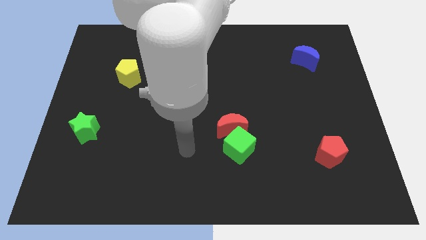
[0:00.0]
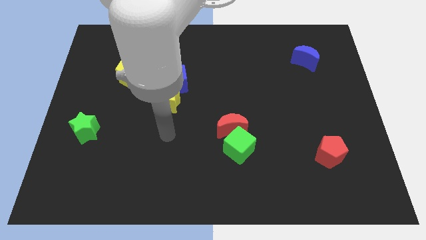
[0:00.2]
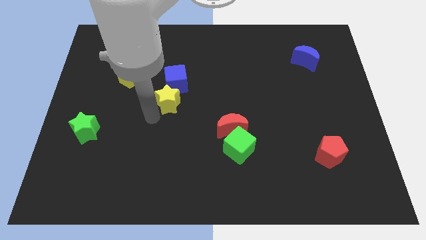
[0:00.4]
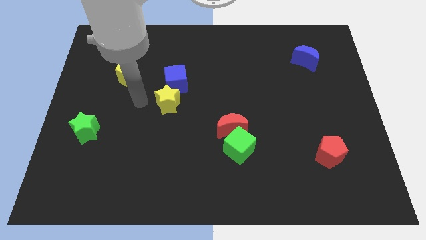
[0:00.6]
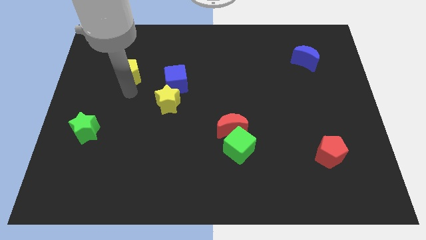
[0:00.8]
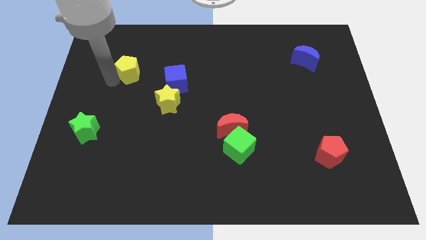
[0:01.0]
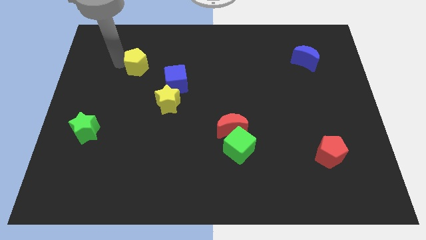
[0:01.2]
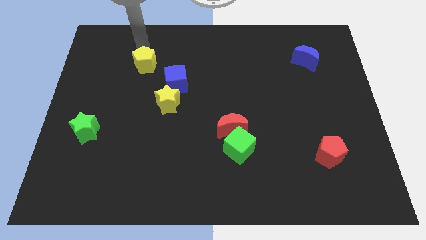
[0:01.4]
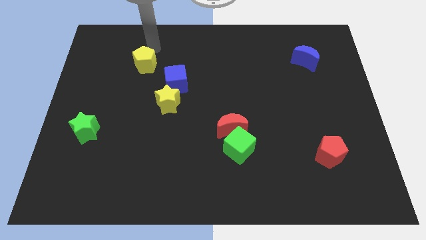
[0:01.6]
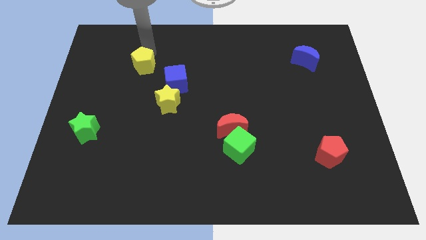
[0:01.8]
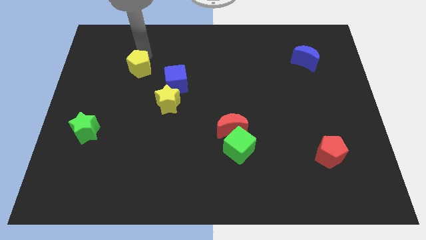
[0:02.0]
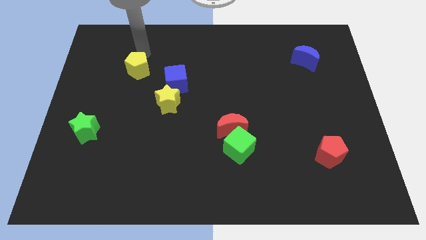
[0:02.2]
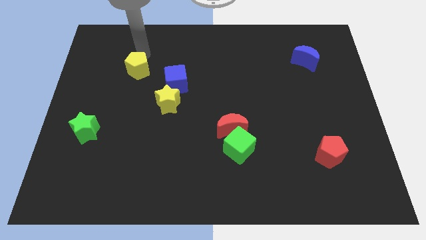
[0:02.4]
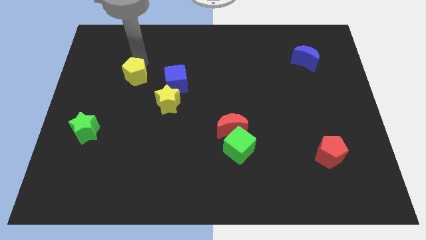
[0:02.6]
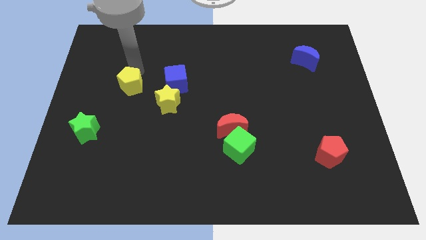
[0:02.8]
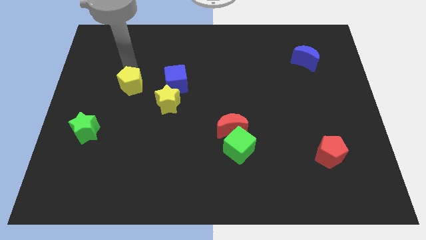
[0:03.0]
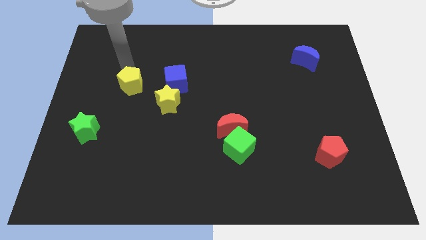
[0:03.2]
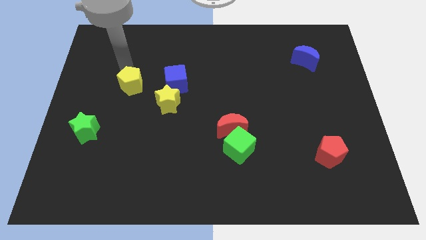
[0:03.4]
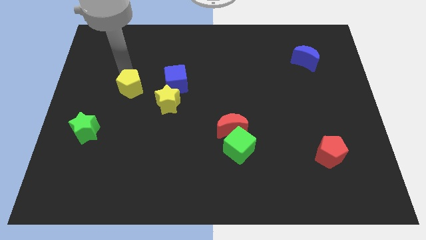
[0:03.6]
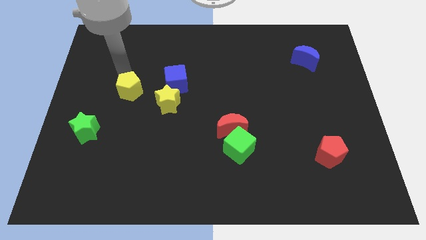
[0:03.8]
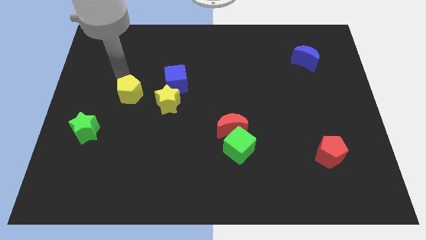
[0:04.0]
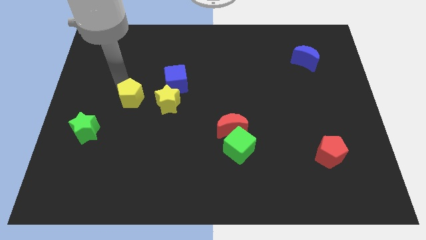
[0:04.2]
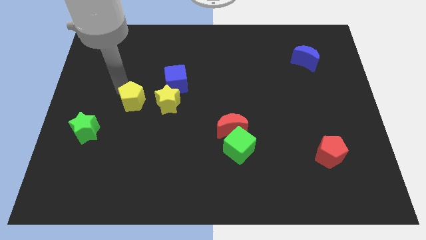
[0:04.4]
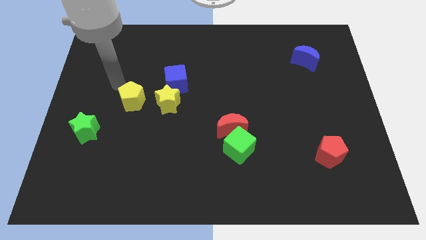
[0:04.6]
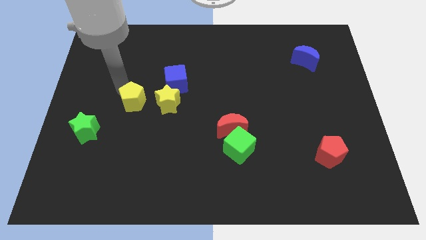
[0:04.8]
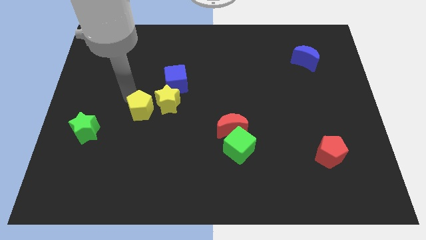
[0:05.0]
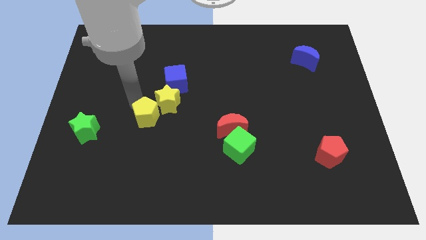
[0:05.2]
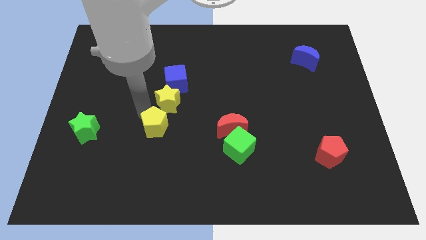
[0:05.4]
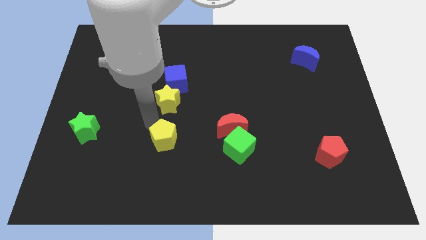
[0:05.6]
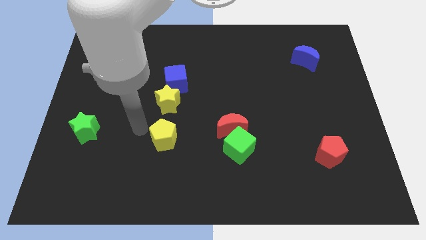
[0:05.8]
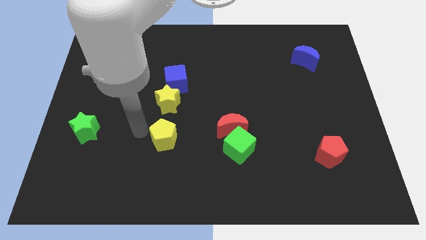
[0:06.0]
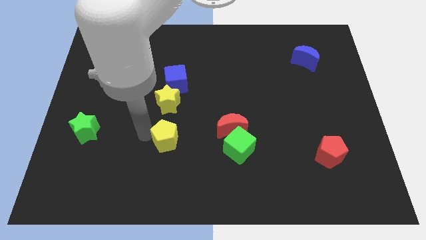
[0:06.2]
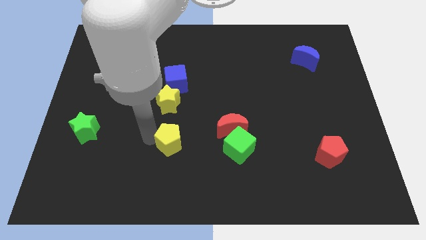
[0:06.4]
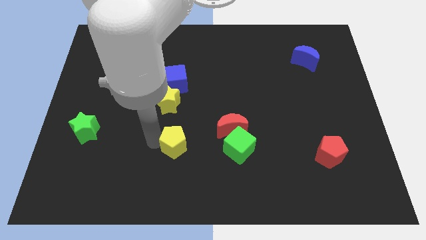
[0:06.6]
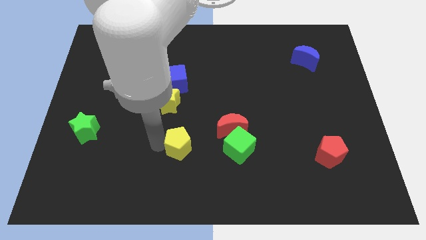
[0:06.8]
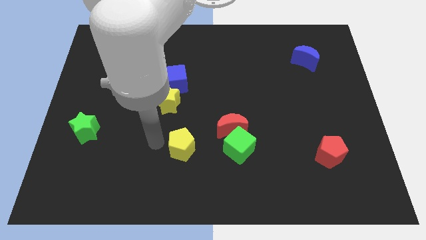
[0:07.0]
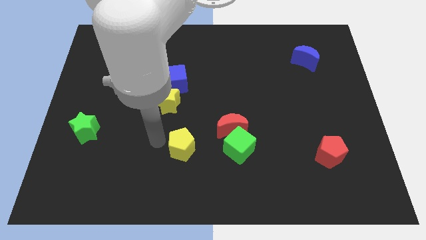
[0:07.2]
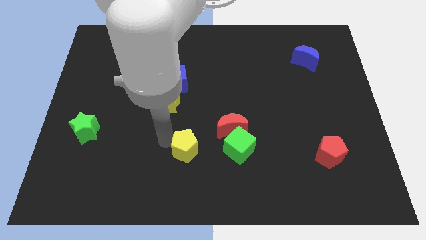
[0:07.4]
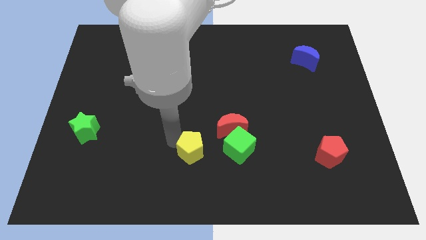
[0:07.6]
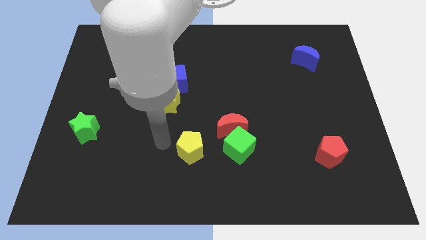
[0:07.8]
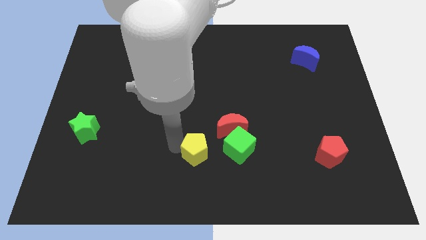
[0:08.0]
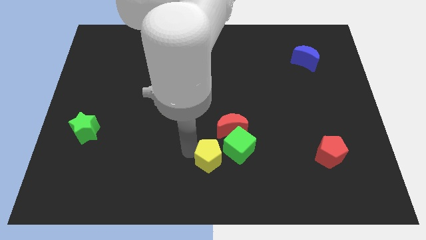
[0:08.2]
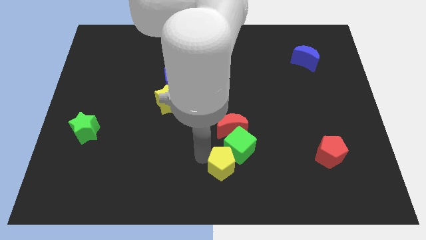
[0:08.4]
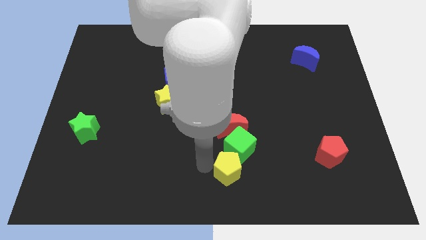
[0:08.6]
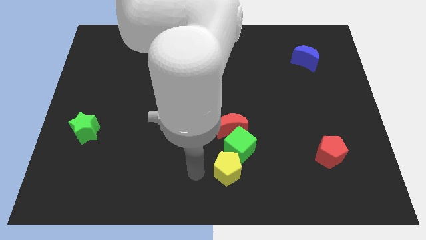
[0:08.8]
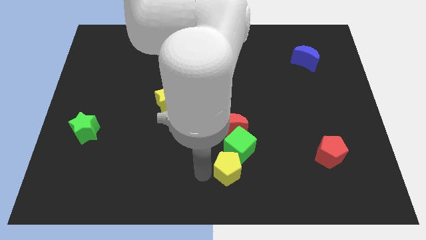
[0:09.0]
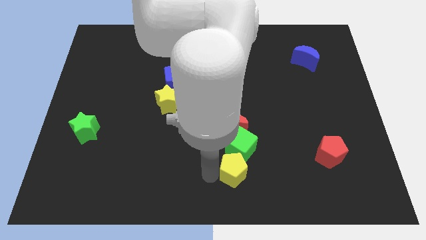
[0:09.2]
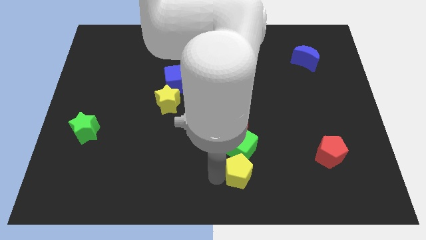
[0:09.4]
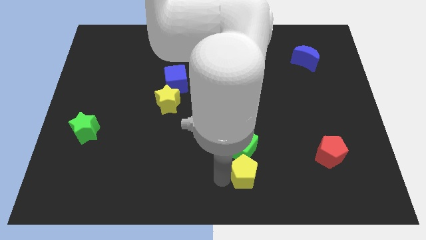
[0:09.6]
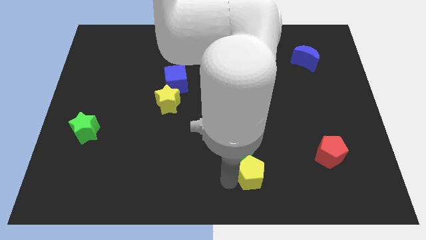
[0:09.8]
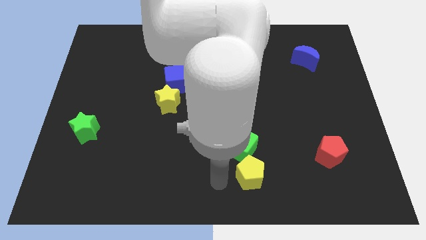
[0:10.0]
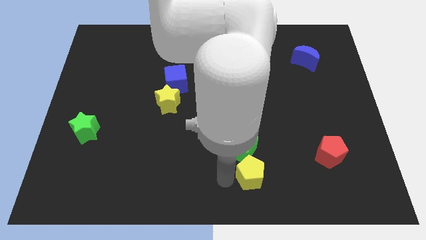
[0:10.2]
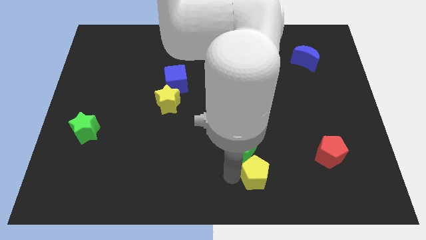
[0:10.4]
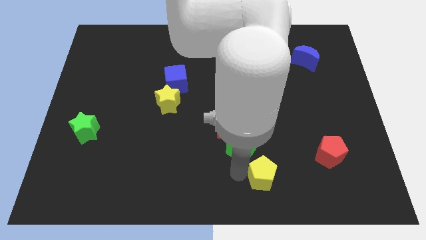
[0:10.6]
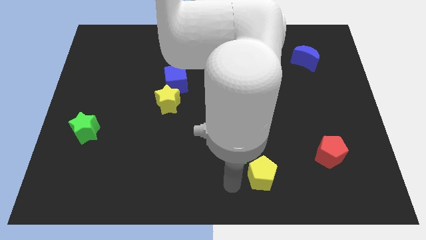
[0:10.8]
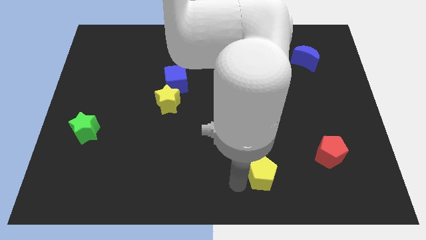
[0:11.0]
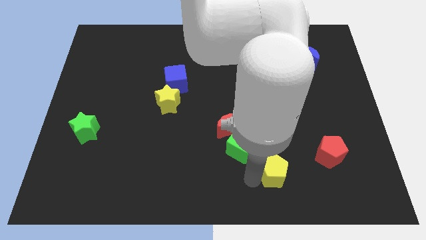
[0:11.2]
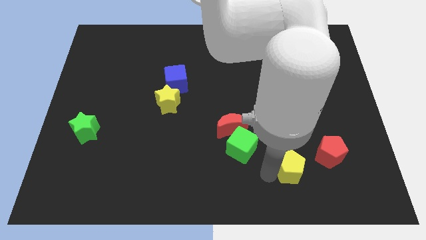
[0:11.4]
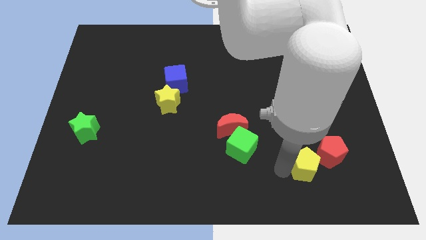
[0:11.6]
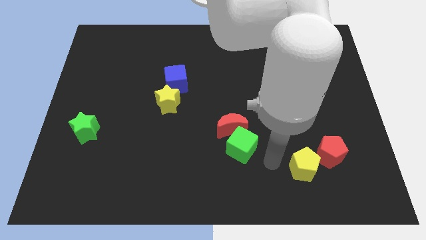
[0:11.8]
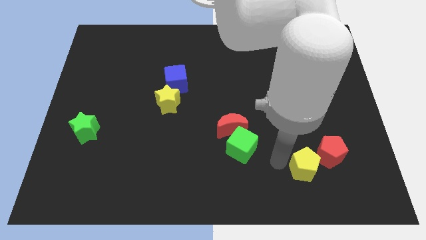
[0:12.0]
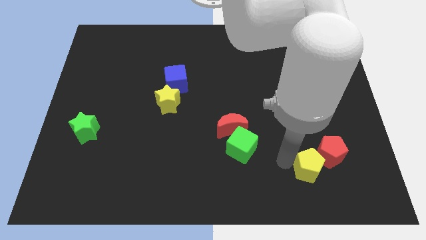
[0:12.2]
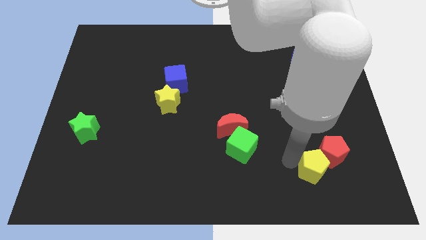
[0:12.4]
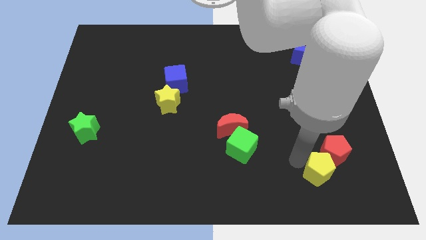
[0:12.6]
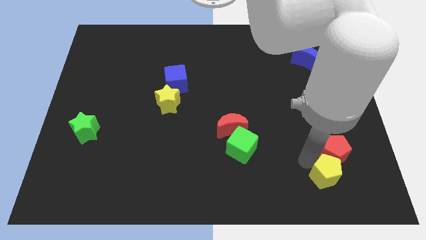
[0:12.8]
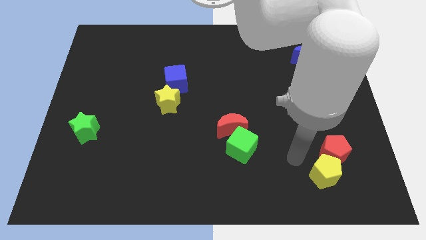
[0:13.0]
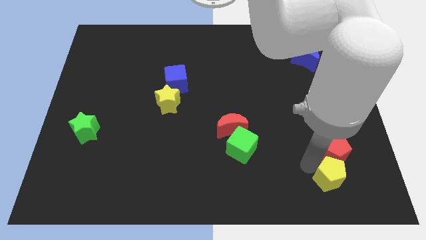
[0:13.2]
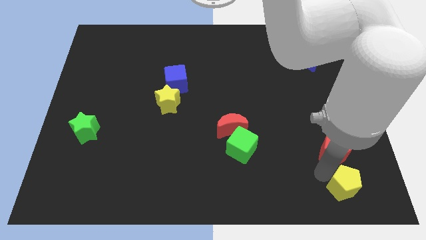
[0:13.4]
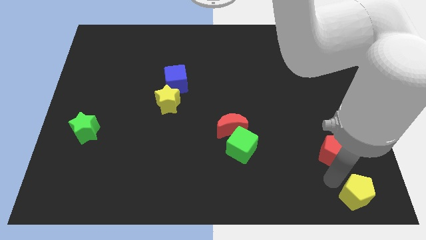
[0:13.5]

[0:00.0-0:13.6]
move the yellow pentagon to the lower right corner

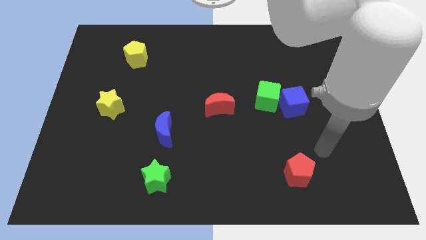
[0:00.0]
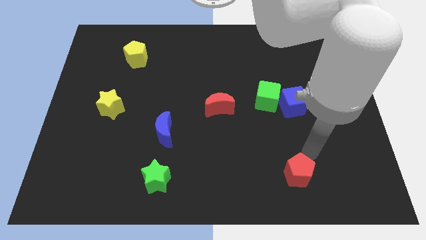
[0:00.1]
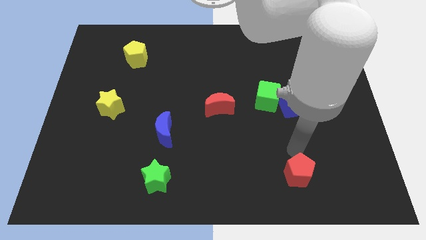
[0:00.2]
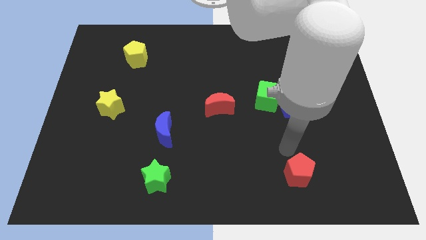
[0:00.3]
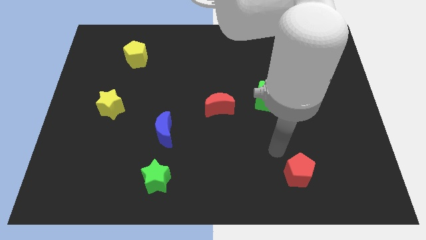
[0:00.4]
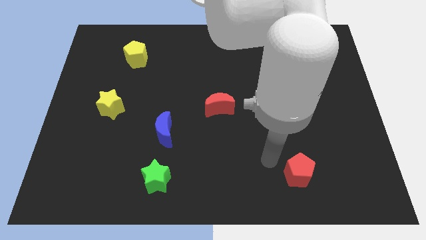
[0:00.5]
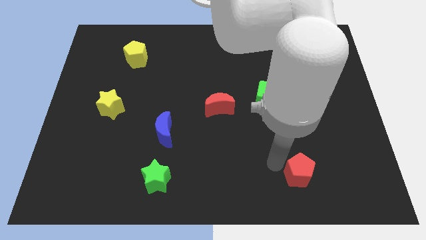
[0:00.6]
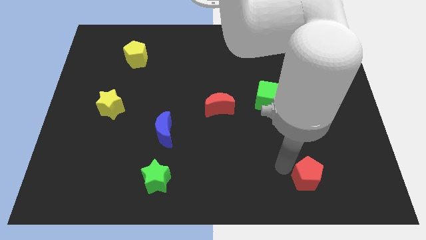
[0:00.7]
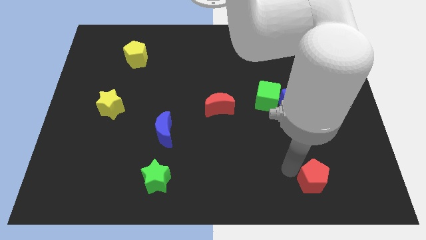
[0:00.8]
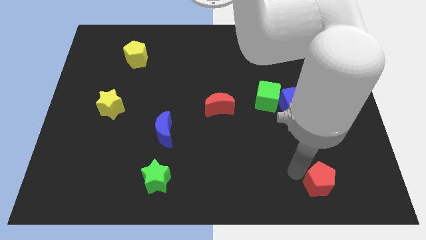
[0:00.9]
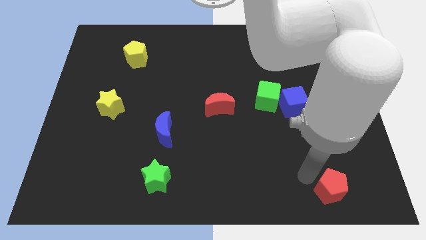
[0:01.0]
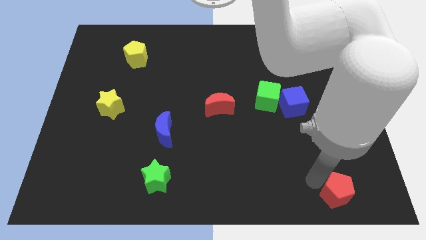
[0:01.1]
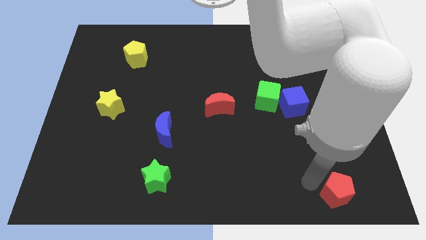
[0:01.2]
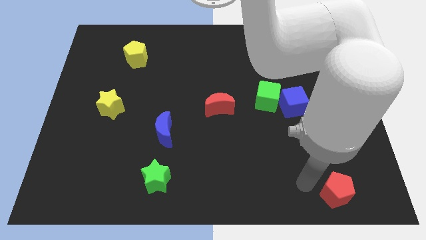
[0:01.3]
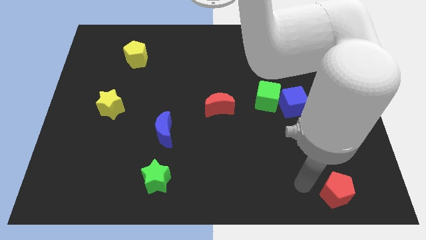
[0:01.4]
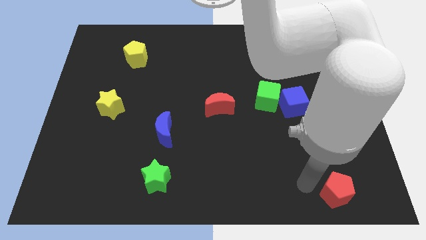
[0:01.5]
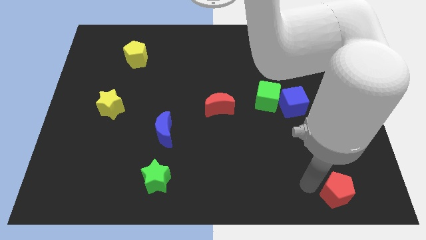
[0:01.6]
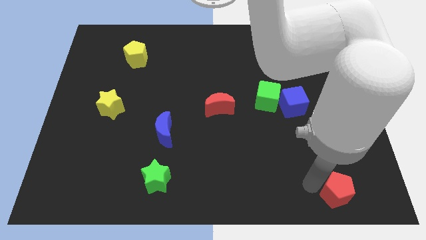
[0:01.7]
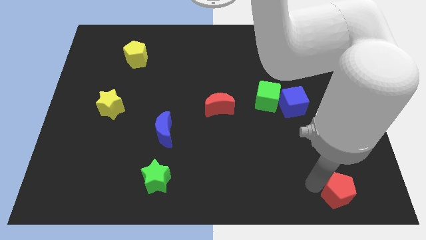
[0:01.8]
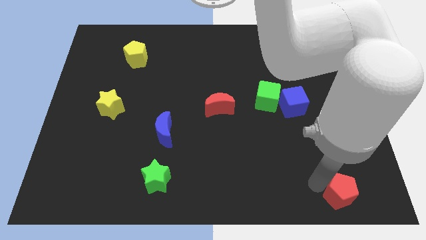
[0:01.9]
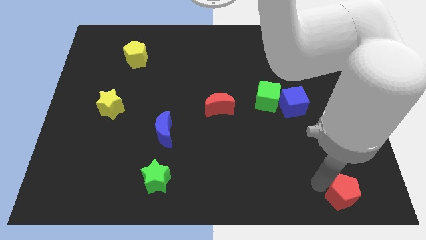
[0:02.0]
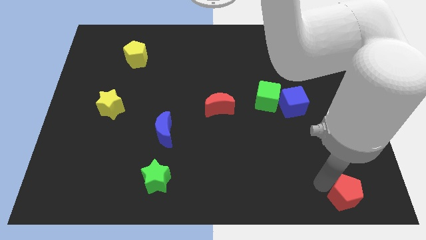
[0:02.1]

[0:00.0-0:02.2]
push the red pentagon to the bottom right of the board
